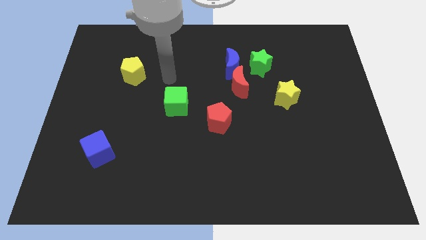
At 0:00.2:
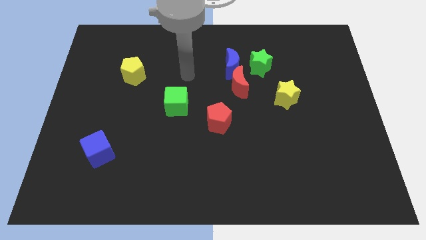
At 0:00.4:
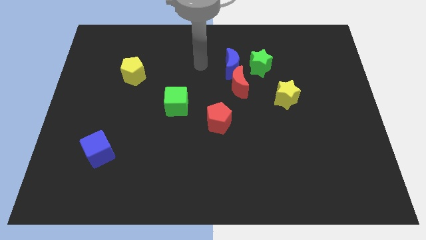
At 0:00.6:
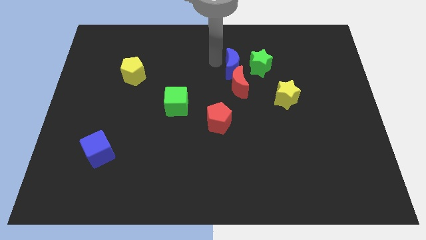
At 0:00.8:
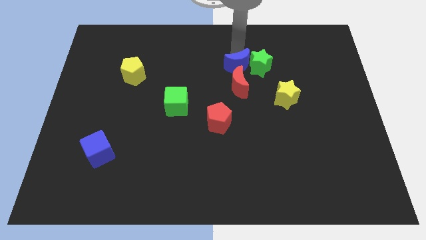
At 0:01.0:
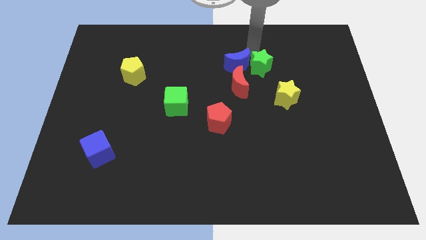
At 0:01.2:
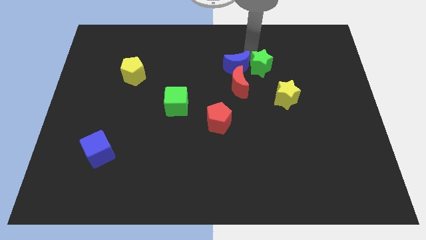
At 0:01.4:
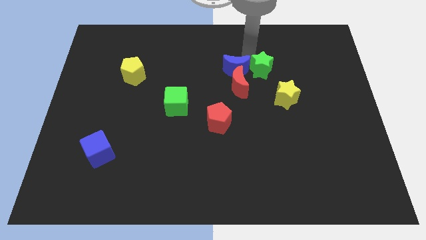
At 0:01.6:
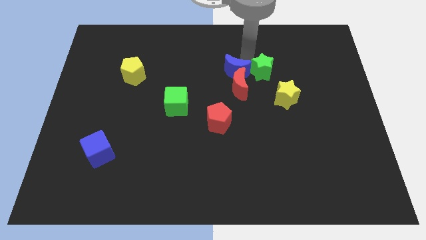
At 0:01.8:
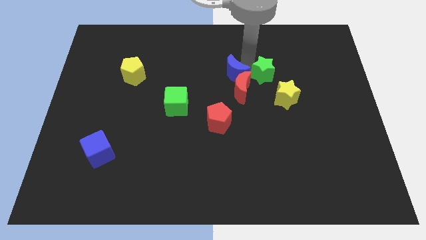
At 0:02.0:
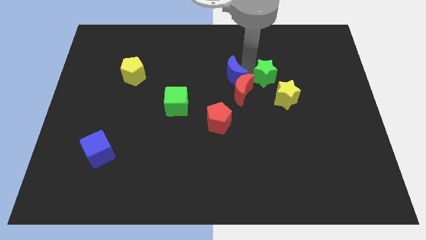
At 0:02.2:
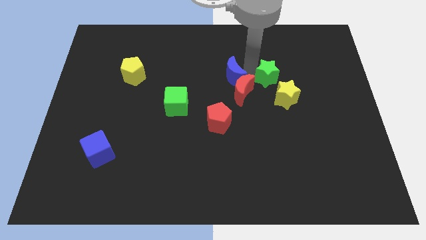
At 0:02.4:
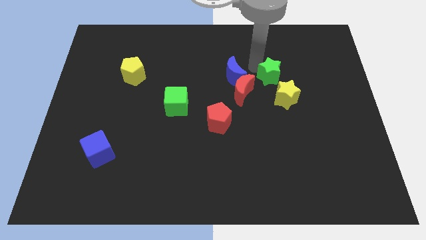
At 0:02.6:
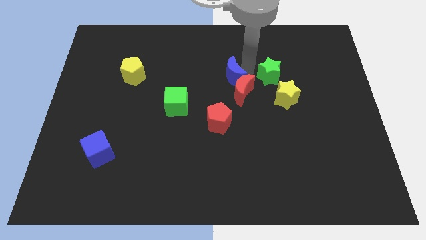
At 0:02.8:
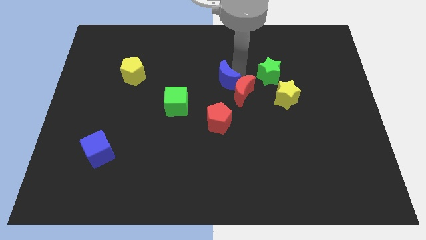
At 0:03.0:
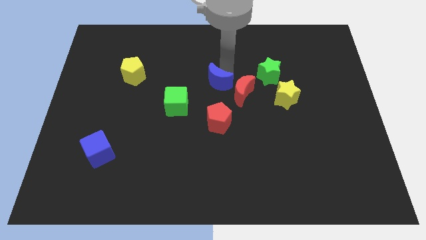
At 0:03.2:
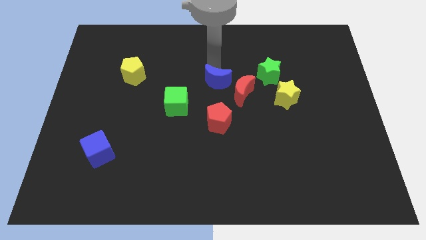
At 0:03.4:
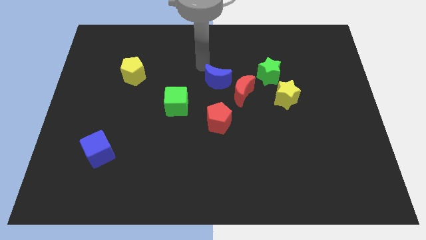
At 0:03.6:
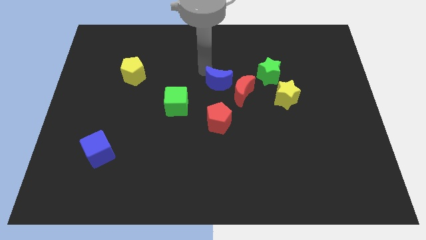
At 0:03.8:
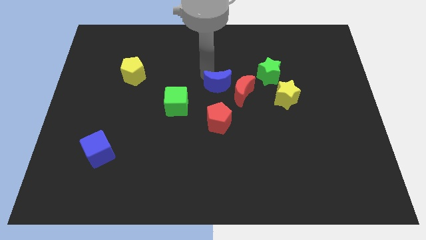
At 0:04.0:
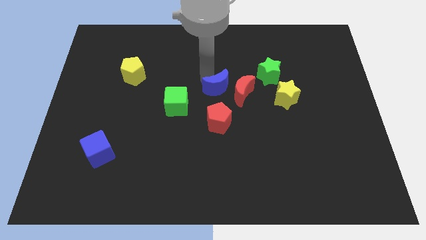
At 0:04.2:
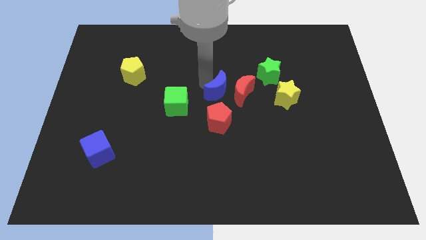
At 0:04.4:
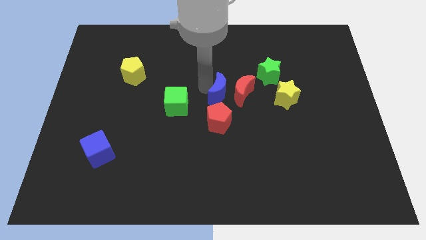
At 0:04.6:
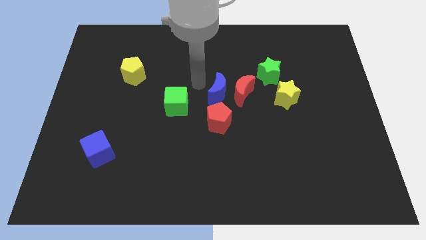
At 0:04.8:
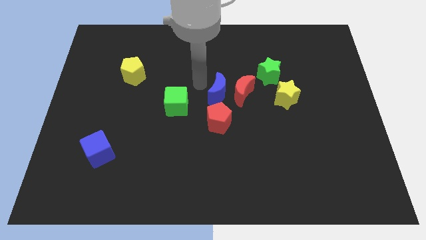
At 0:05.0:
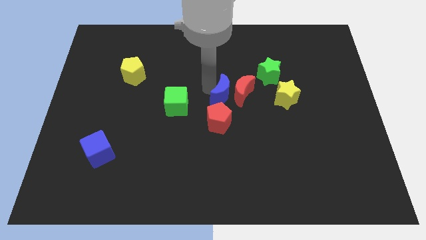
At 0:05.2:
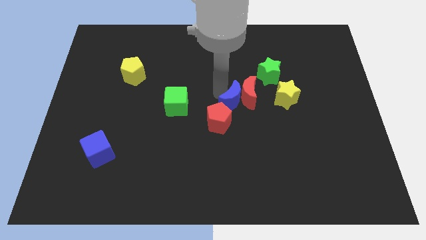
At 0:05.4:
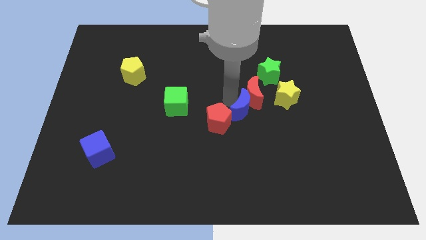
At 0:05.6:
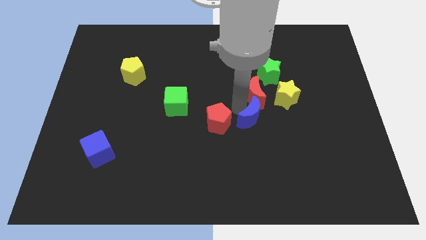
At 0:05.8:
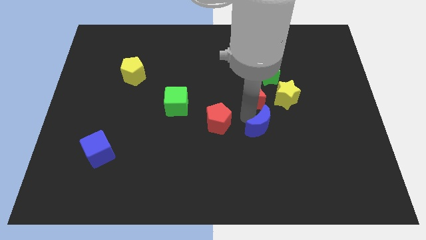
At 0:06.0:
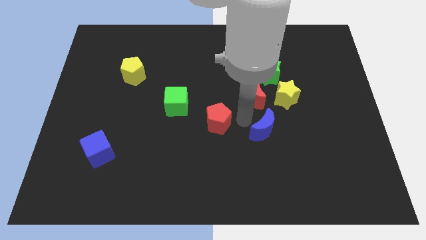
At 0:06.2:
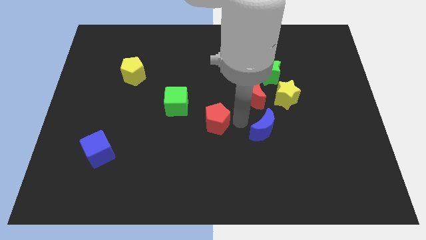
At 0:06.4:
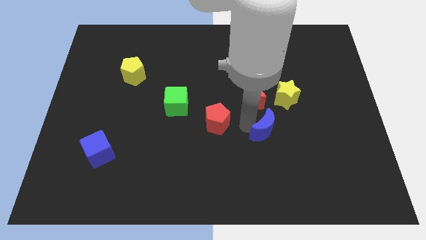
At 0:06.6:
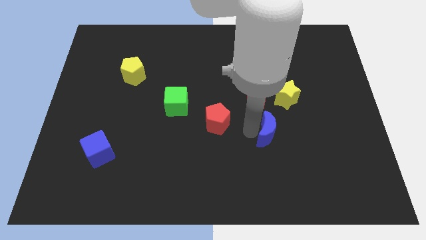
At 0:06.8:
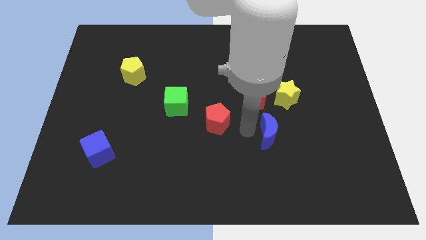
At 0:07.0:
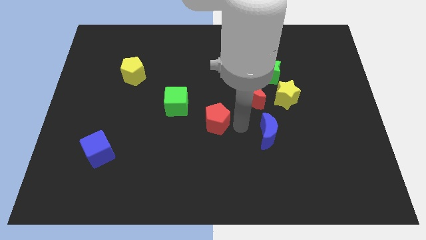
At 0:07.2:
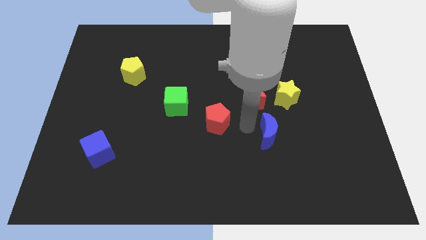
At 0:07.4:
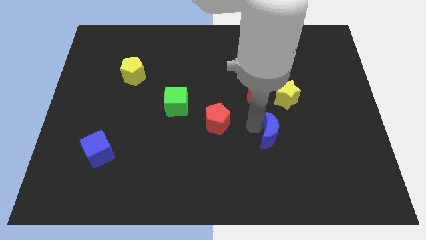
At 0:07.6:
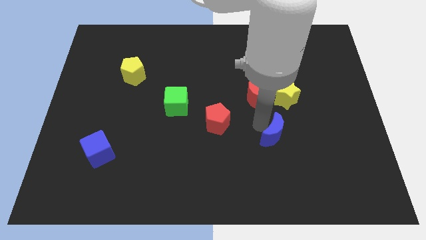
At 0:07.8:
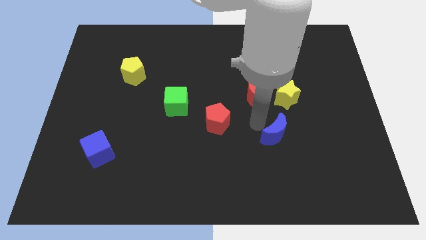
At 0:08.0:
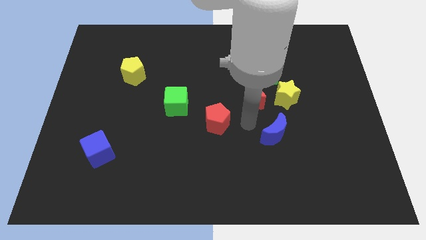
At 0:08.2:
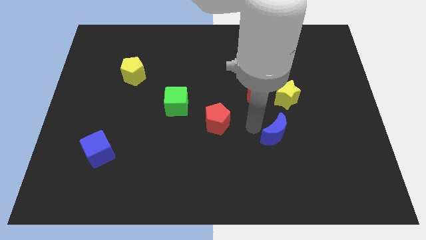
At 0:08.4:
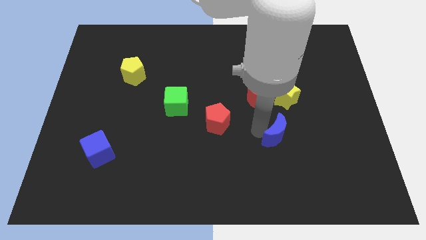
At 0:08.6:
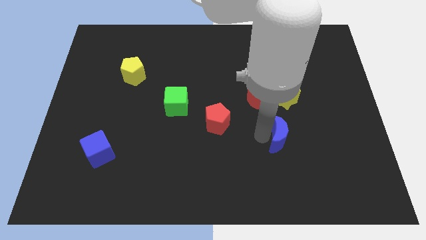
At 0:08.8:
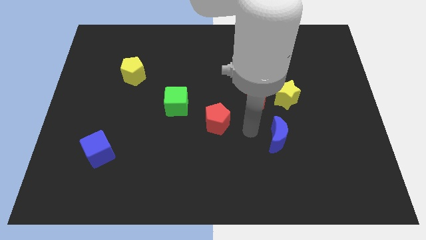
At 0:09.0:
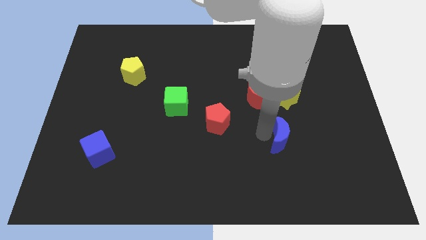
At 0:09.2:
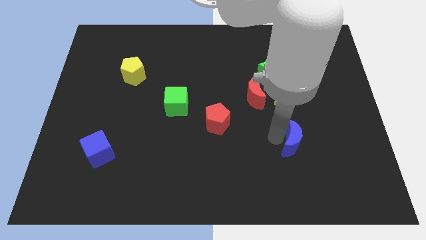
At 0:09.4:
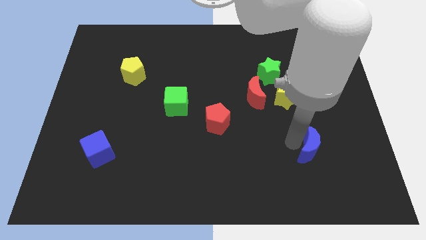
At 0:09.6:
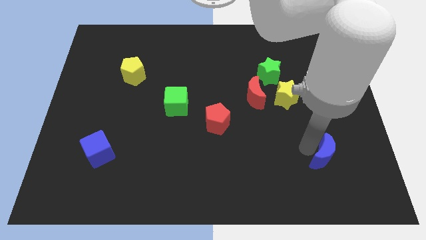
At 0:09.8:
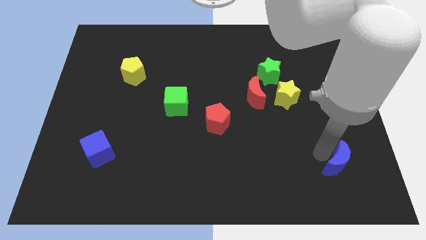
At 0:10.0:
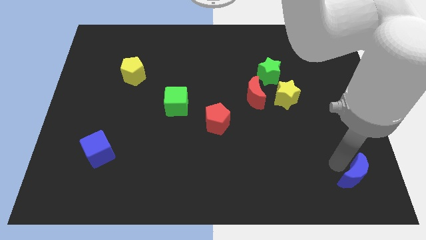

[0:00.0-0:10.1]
push the blue moon to the lower right corner

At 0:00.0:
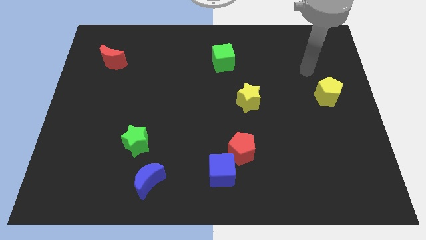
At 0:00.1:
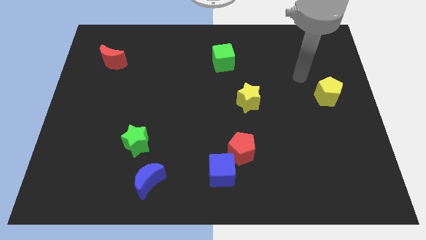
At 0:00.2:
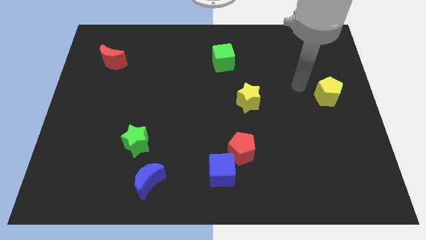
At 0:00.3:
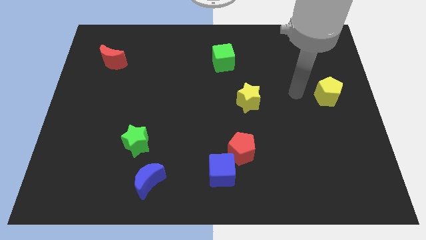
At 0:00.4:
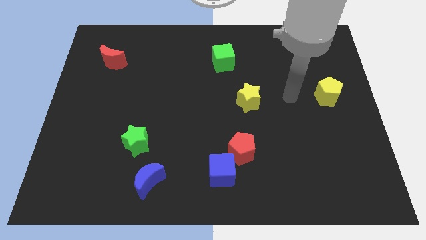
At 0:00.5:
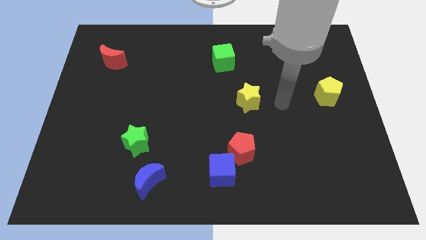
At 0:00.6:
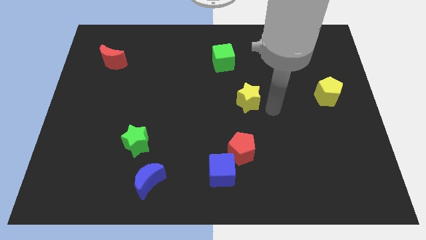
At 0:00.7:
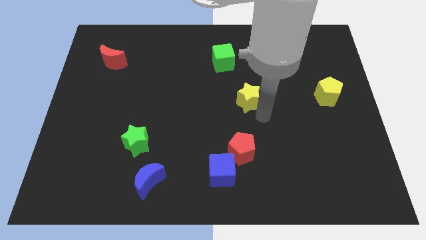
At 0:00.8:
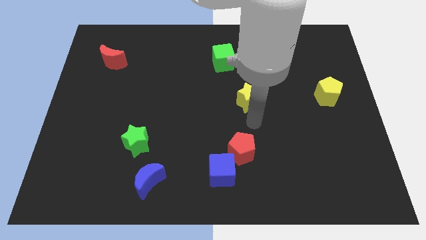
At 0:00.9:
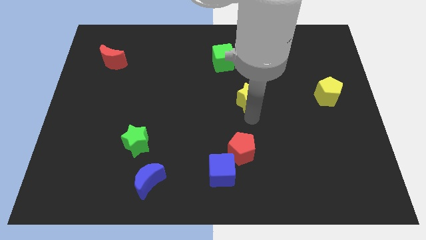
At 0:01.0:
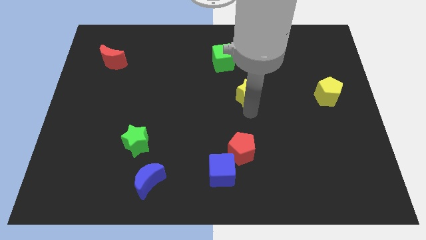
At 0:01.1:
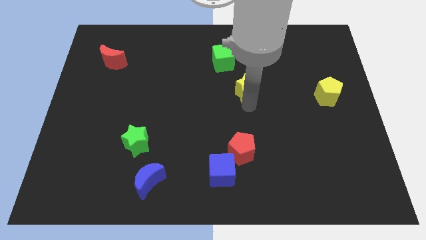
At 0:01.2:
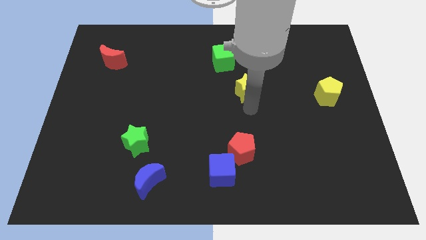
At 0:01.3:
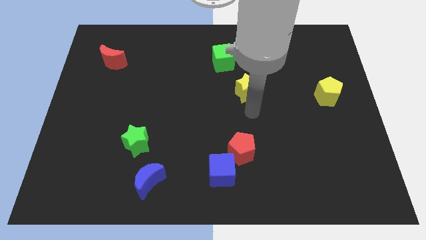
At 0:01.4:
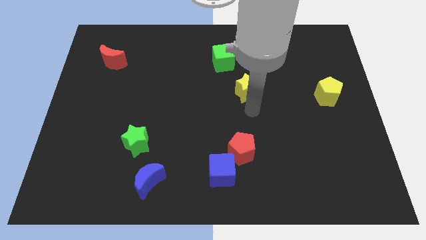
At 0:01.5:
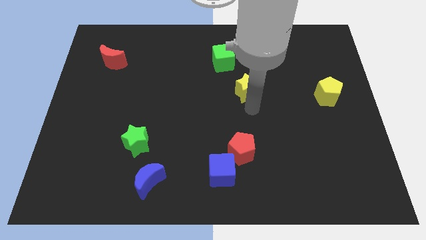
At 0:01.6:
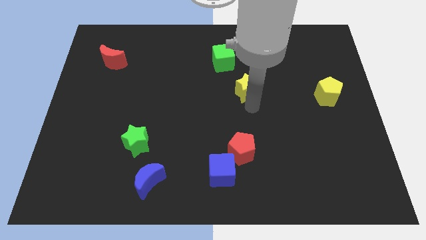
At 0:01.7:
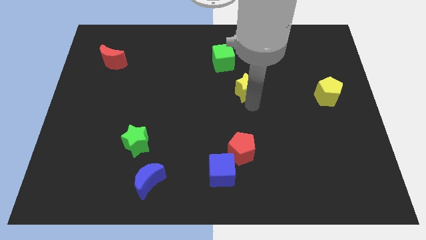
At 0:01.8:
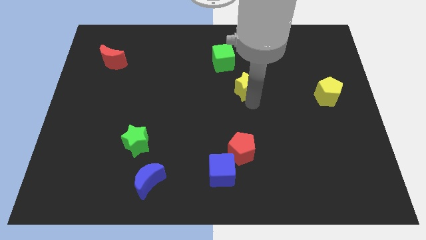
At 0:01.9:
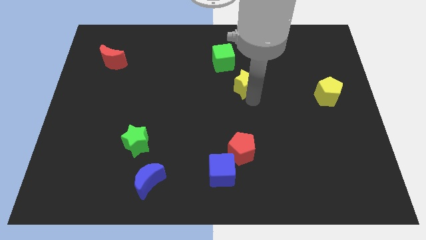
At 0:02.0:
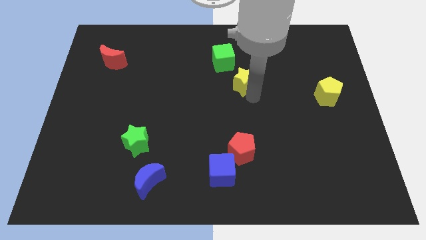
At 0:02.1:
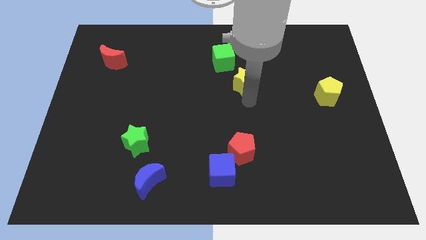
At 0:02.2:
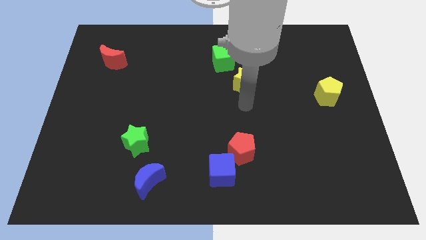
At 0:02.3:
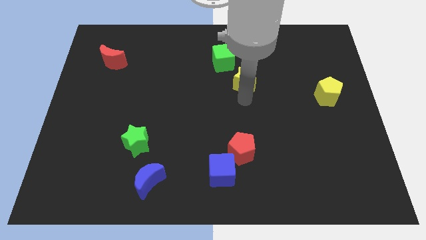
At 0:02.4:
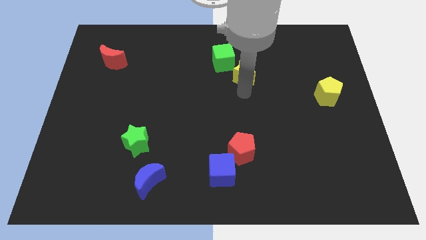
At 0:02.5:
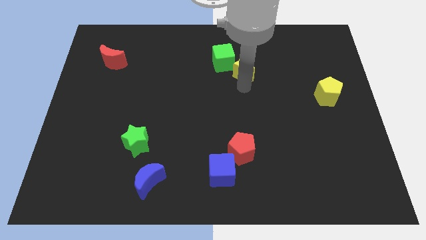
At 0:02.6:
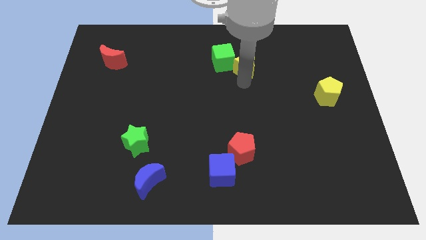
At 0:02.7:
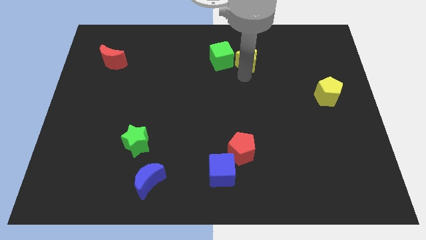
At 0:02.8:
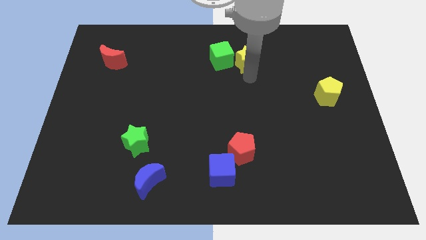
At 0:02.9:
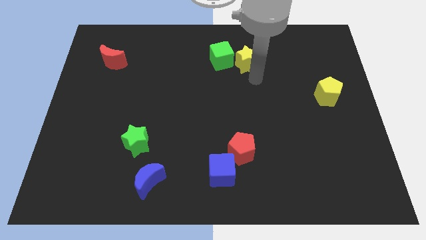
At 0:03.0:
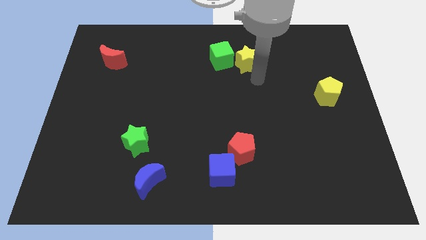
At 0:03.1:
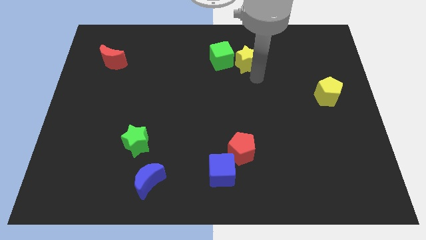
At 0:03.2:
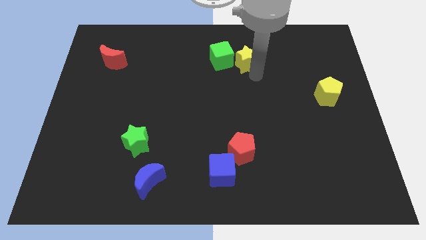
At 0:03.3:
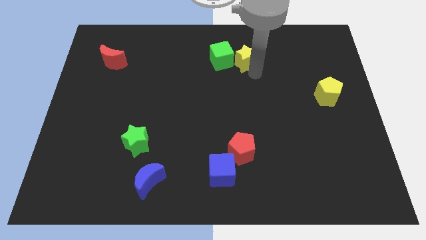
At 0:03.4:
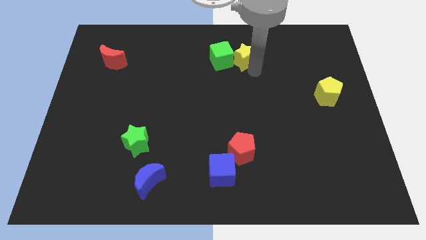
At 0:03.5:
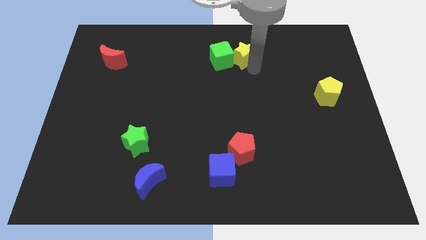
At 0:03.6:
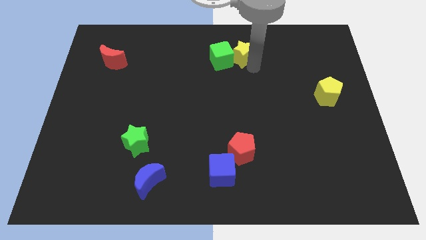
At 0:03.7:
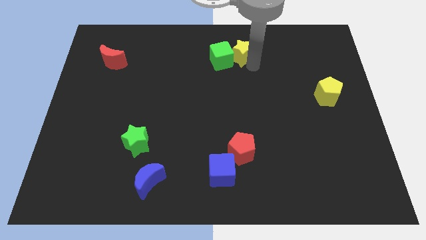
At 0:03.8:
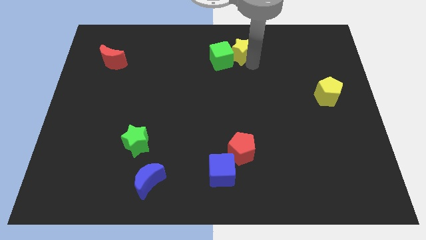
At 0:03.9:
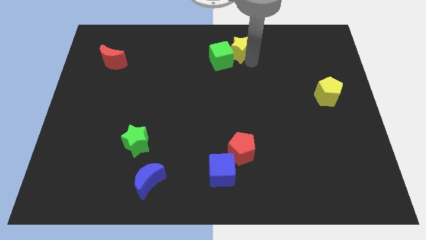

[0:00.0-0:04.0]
move the yellow star to the top
